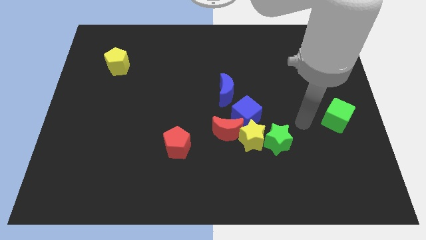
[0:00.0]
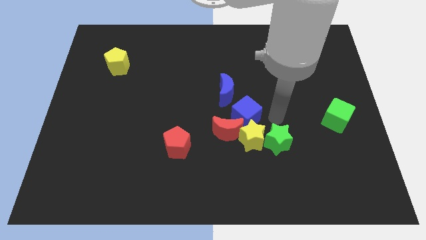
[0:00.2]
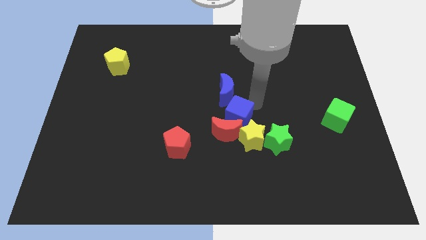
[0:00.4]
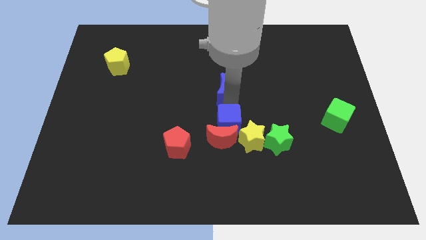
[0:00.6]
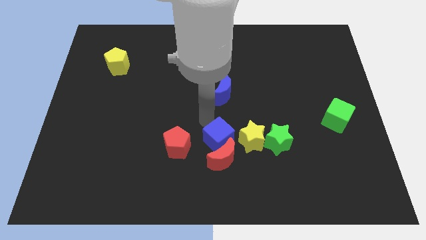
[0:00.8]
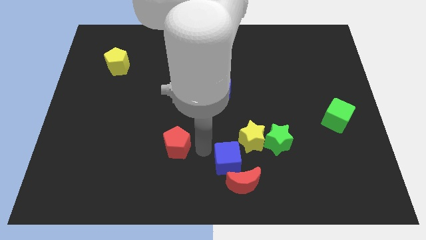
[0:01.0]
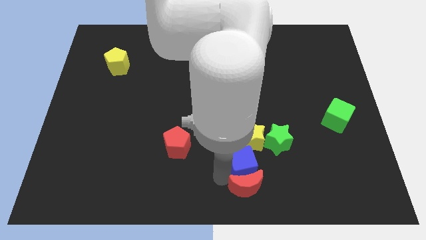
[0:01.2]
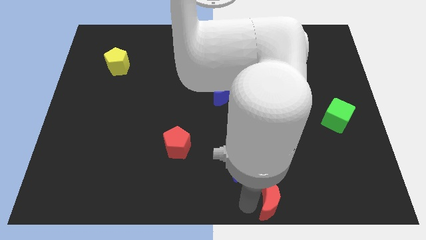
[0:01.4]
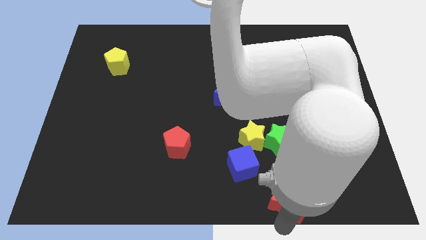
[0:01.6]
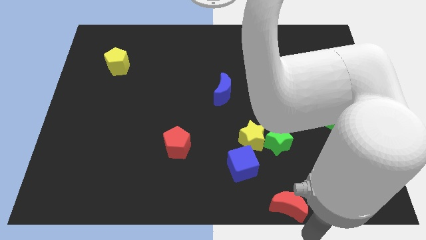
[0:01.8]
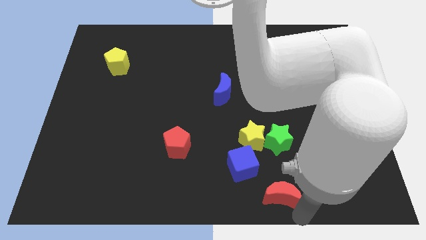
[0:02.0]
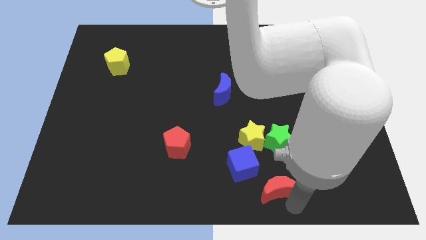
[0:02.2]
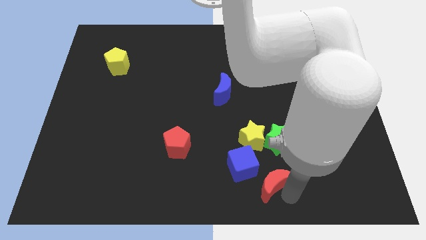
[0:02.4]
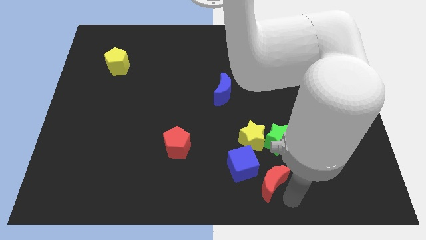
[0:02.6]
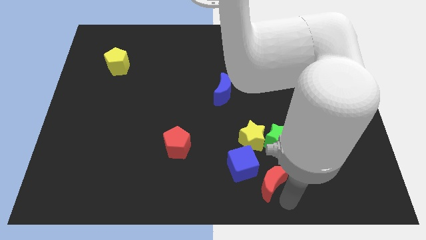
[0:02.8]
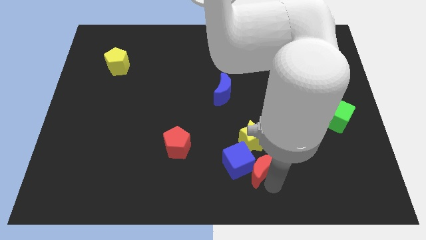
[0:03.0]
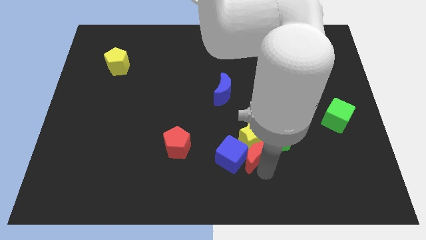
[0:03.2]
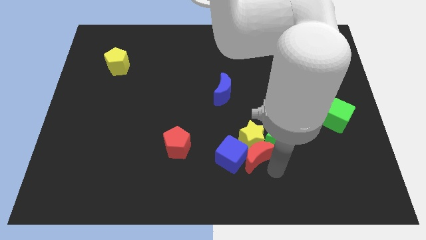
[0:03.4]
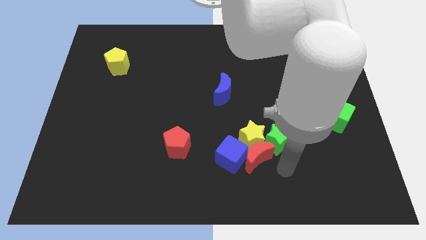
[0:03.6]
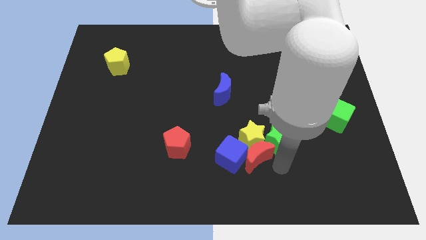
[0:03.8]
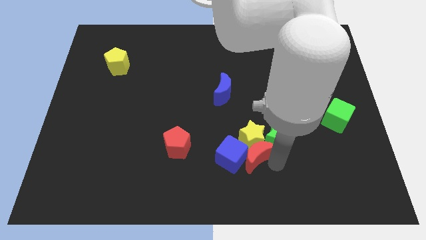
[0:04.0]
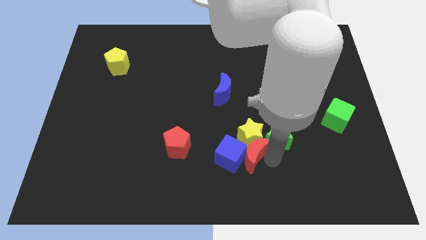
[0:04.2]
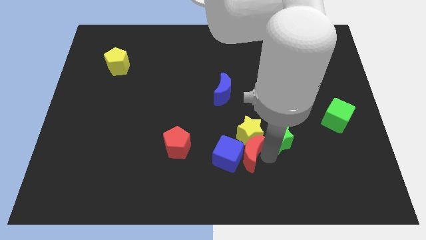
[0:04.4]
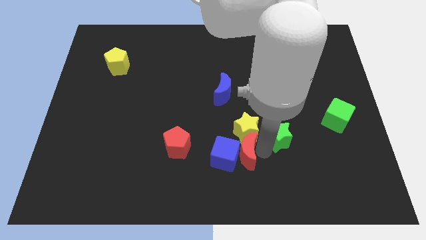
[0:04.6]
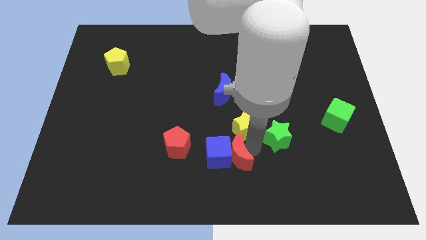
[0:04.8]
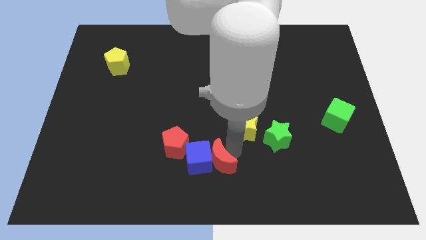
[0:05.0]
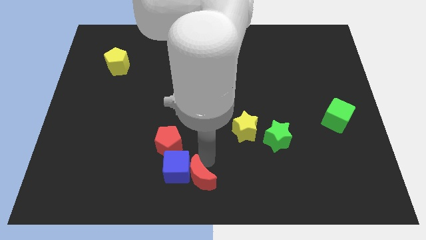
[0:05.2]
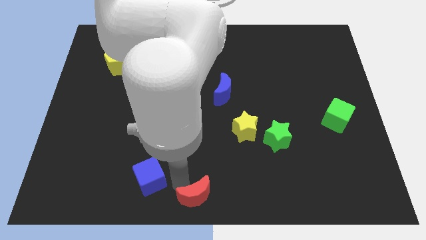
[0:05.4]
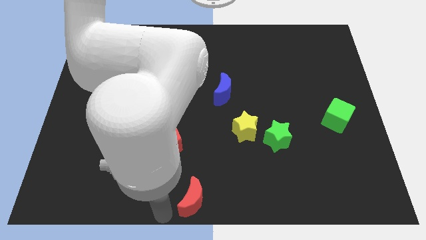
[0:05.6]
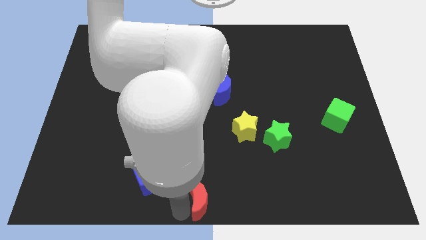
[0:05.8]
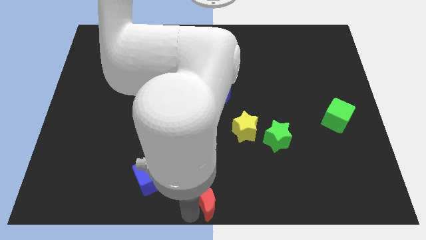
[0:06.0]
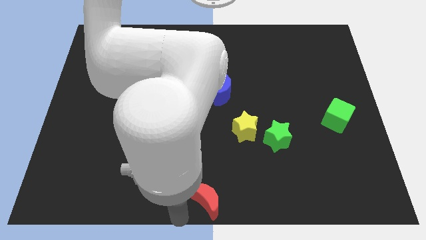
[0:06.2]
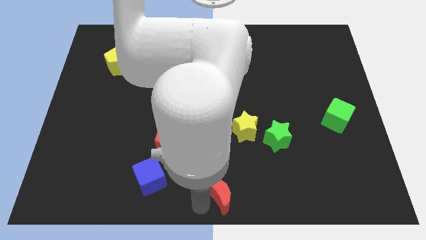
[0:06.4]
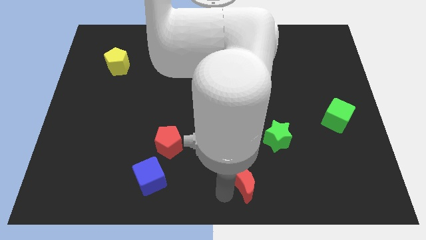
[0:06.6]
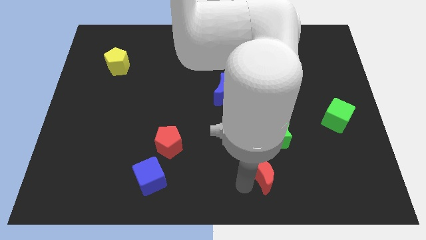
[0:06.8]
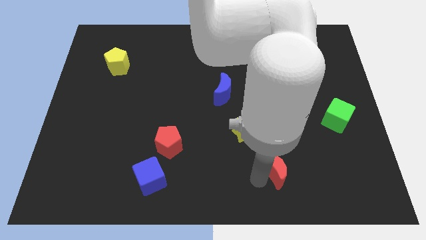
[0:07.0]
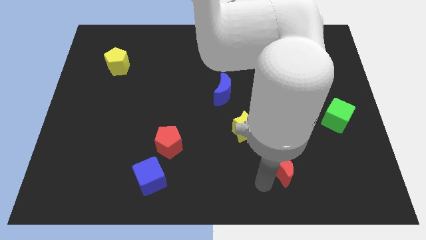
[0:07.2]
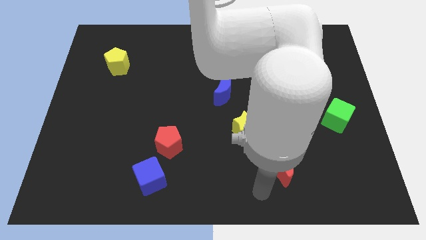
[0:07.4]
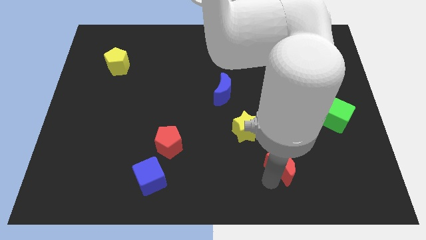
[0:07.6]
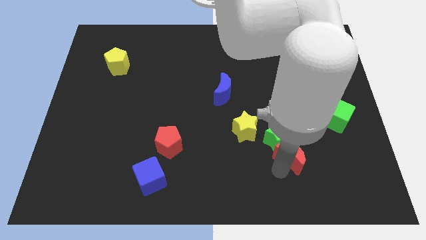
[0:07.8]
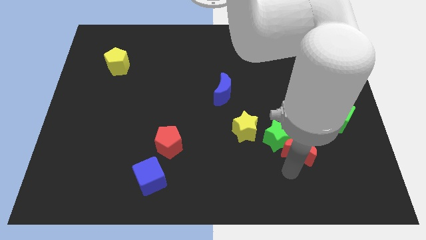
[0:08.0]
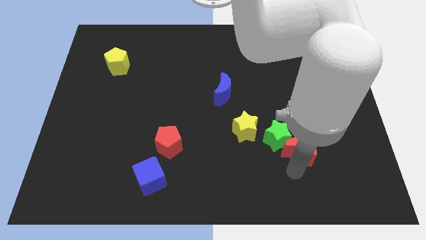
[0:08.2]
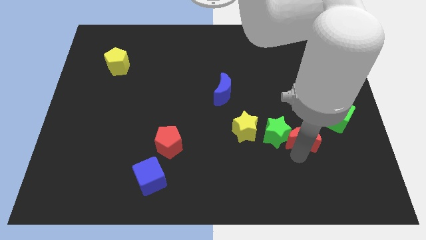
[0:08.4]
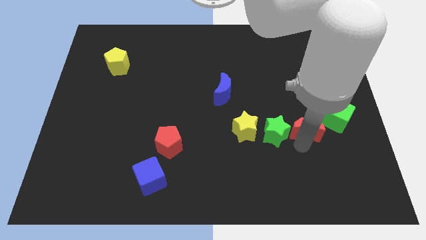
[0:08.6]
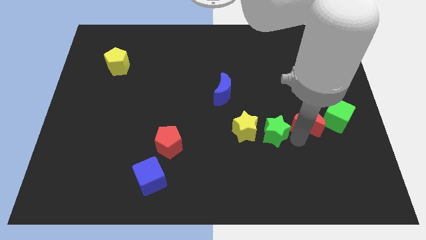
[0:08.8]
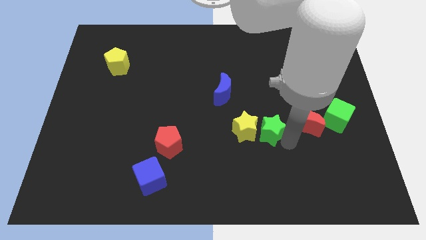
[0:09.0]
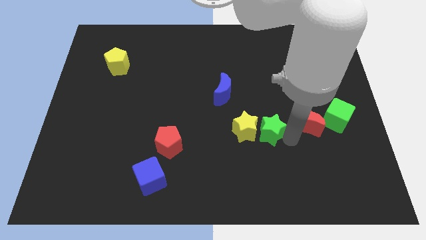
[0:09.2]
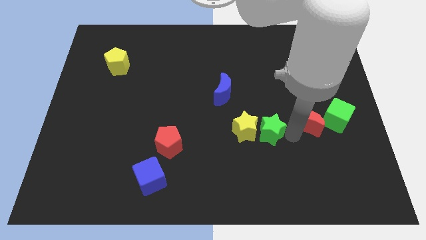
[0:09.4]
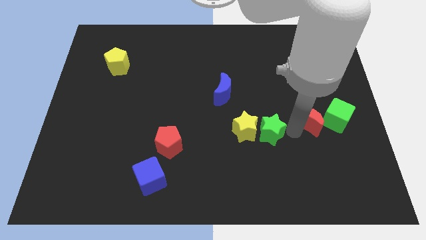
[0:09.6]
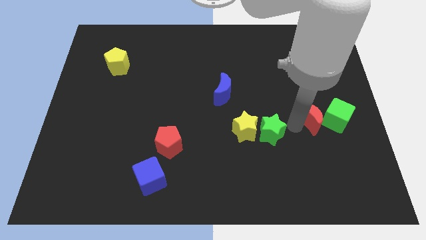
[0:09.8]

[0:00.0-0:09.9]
put the red moon next to the green cube

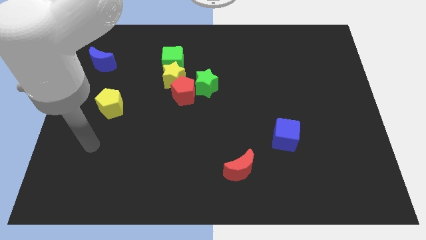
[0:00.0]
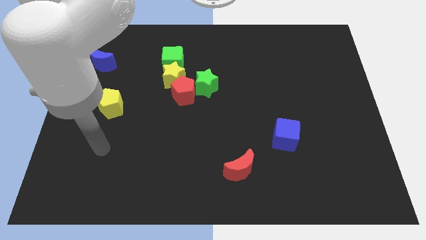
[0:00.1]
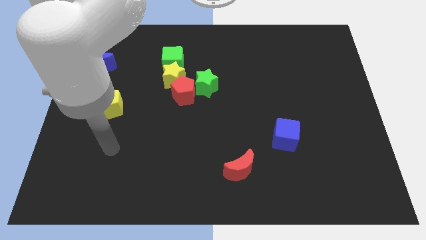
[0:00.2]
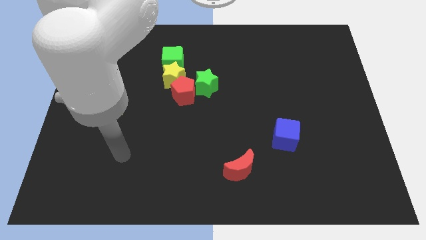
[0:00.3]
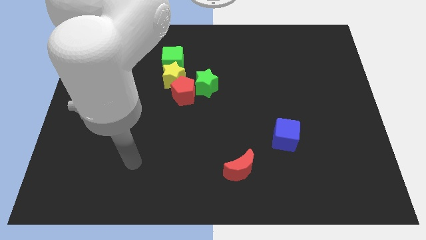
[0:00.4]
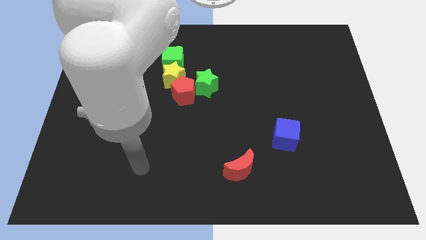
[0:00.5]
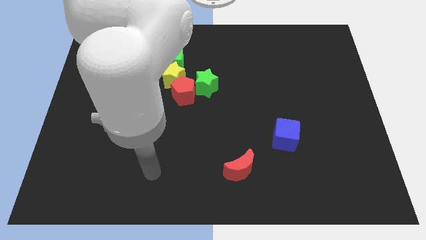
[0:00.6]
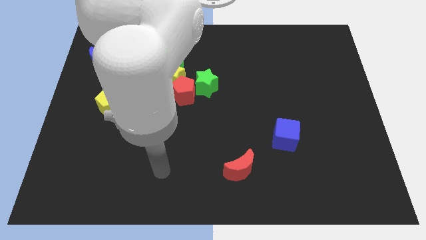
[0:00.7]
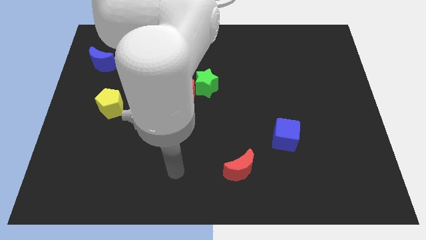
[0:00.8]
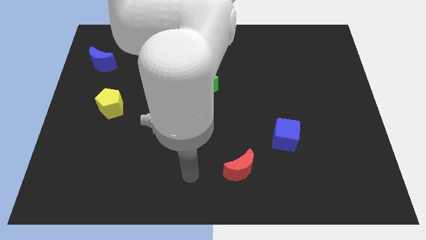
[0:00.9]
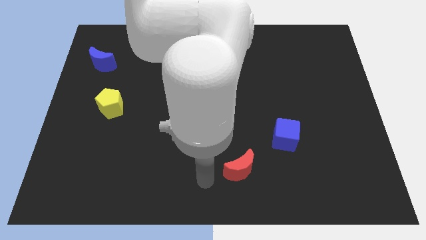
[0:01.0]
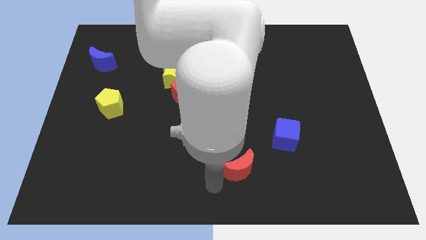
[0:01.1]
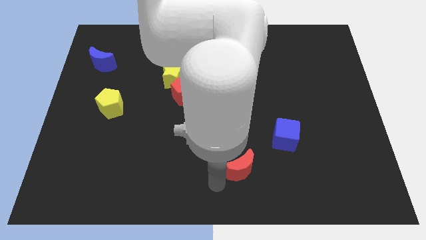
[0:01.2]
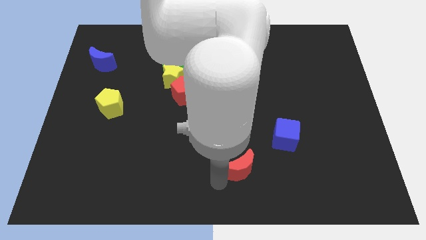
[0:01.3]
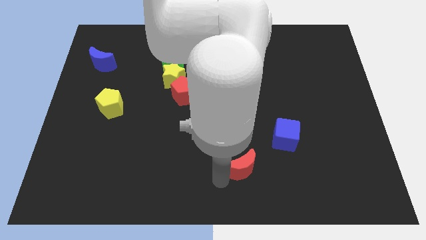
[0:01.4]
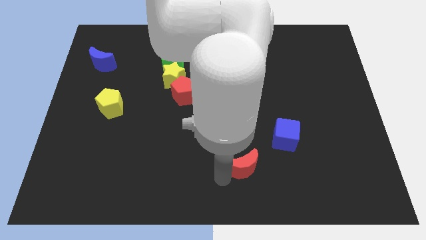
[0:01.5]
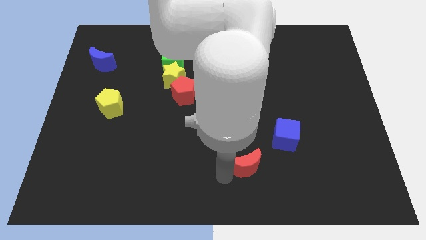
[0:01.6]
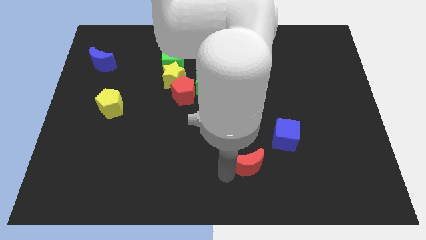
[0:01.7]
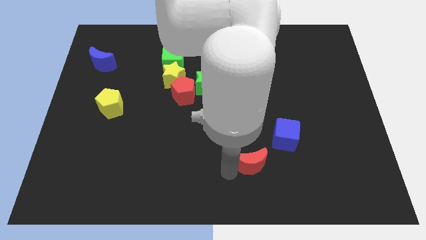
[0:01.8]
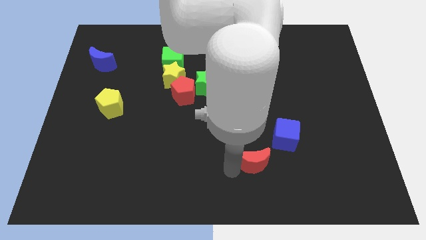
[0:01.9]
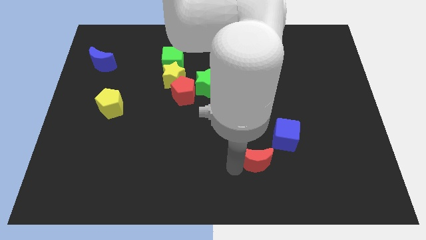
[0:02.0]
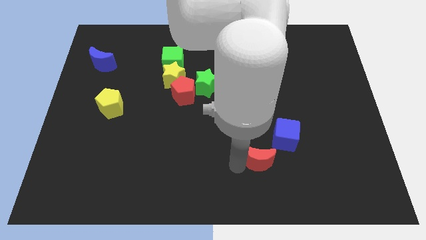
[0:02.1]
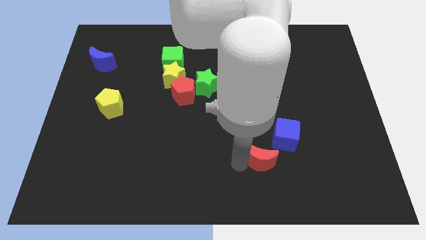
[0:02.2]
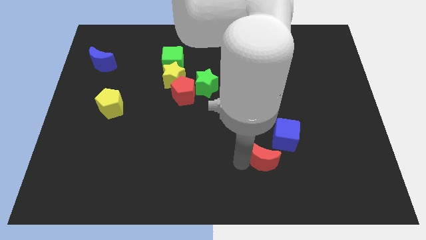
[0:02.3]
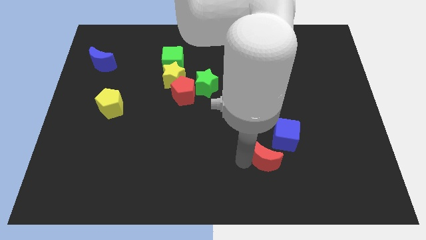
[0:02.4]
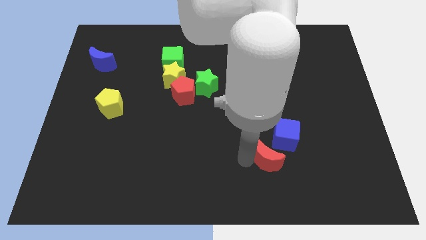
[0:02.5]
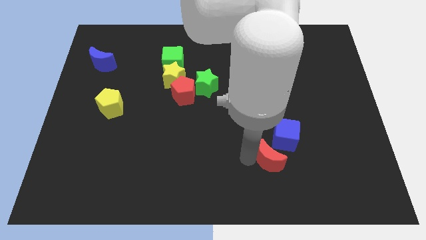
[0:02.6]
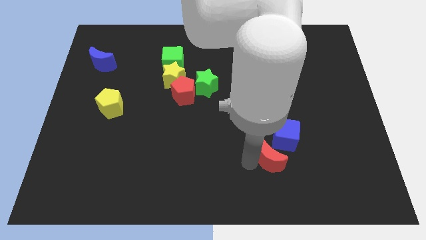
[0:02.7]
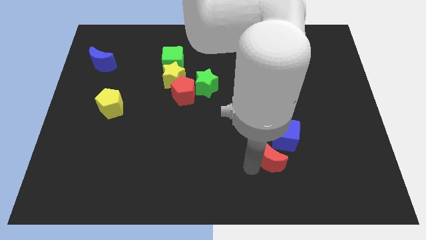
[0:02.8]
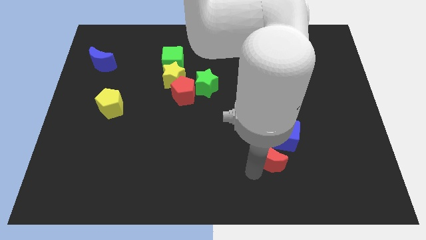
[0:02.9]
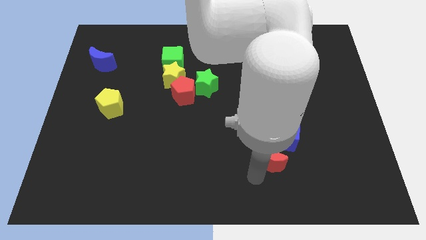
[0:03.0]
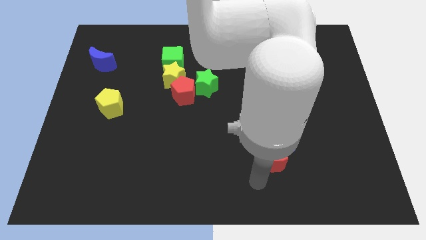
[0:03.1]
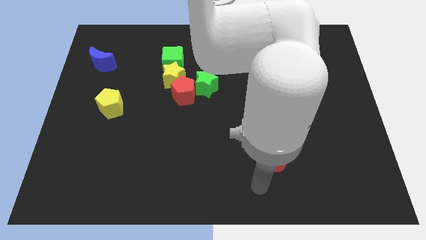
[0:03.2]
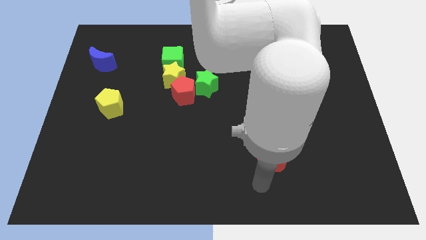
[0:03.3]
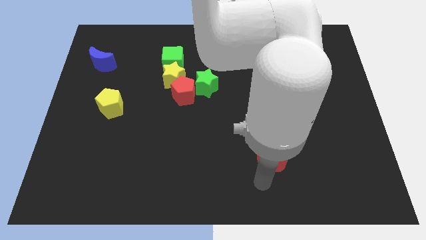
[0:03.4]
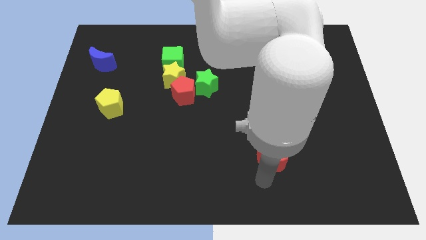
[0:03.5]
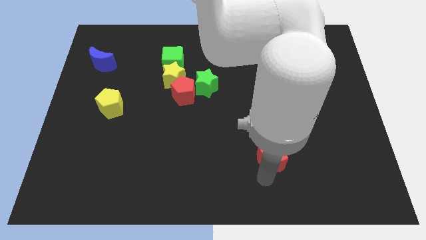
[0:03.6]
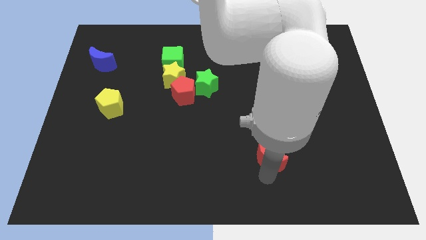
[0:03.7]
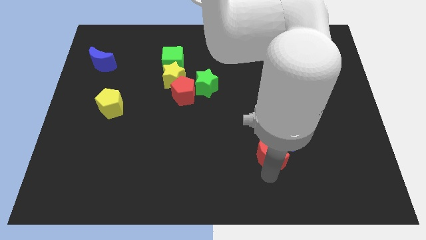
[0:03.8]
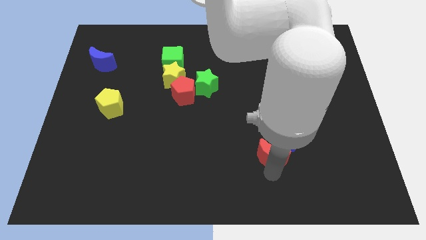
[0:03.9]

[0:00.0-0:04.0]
push the red moon next to the blue cube
